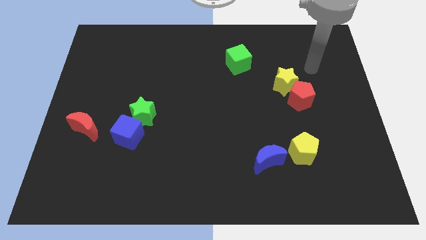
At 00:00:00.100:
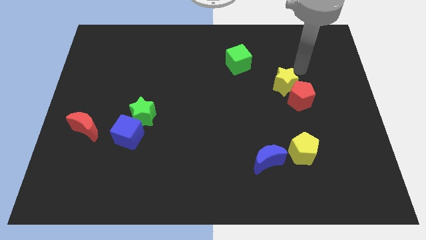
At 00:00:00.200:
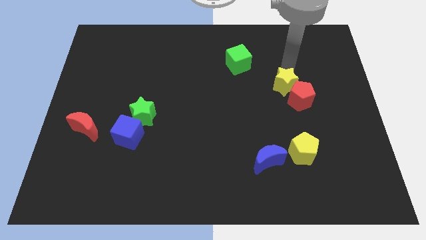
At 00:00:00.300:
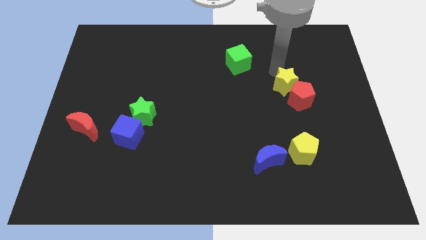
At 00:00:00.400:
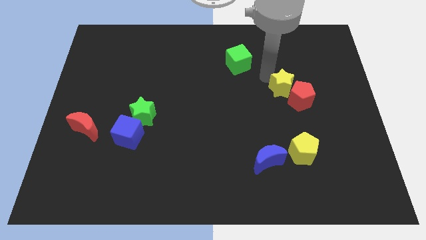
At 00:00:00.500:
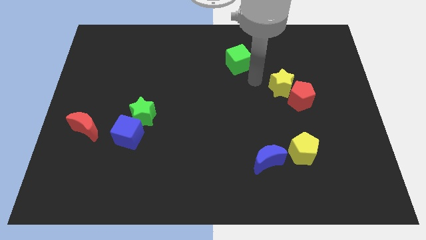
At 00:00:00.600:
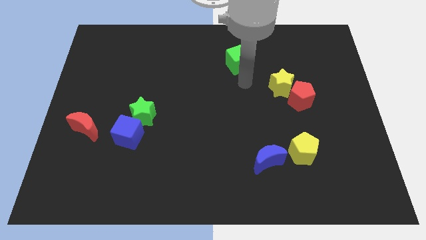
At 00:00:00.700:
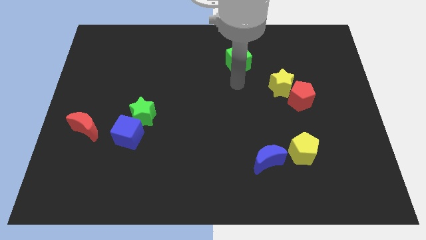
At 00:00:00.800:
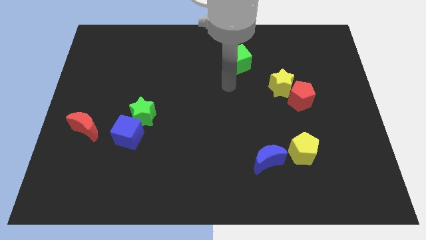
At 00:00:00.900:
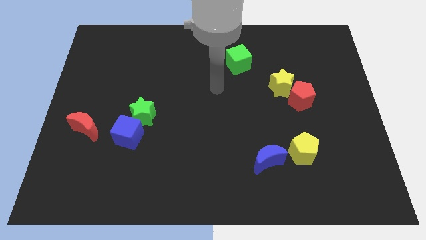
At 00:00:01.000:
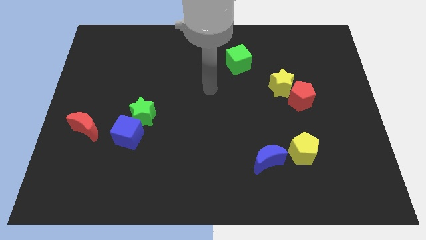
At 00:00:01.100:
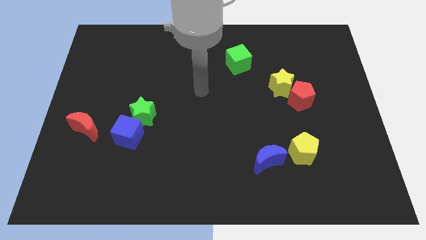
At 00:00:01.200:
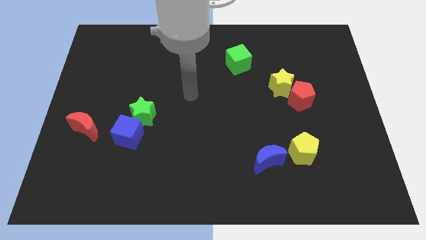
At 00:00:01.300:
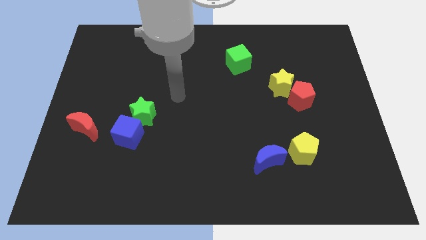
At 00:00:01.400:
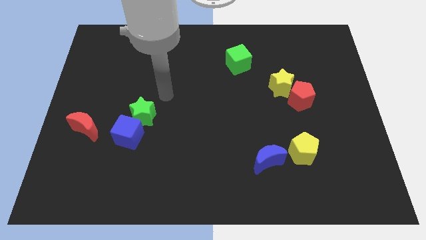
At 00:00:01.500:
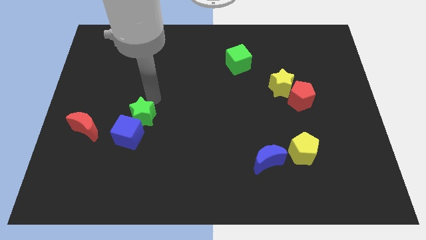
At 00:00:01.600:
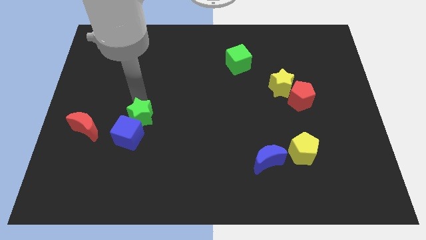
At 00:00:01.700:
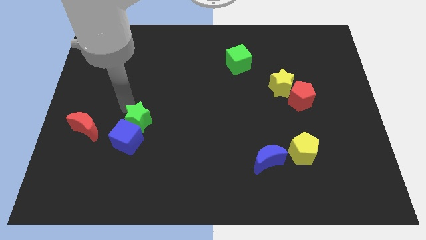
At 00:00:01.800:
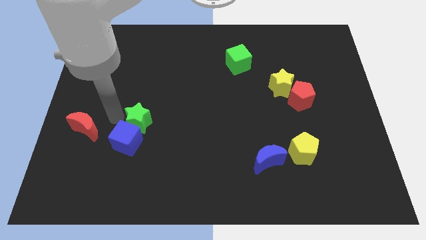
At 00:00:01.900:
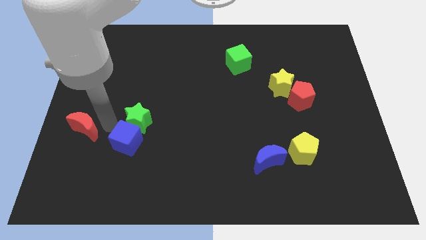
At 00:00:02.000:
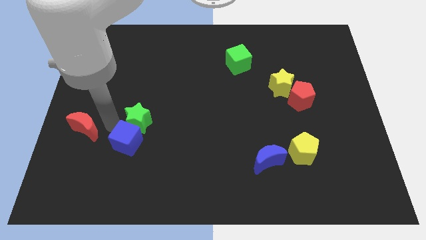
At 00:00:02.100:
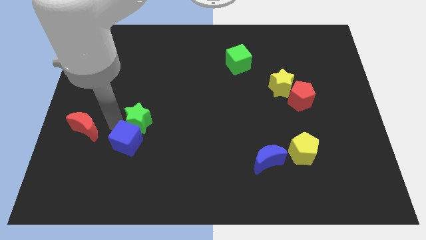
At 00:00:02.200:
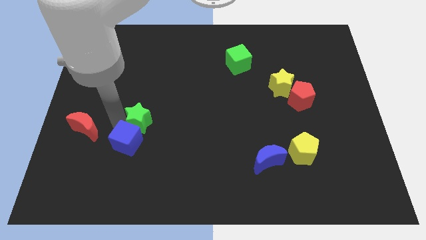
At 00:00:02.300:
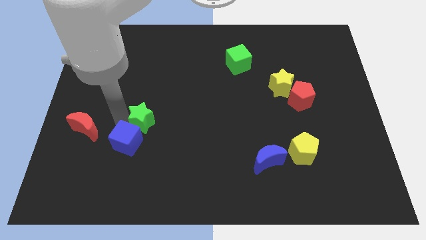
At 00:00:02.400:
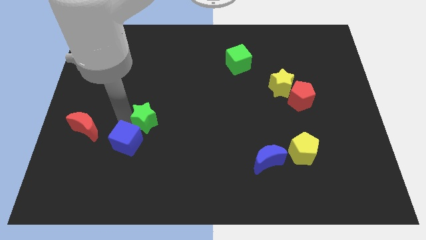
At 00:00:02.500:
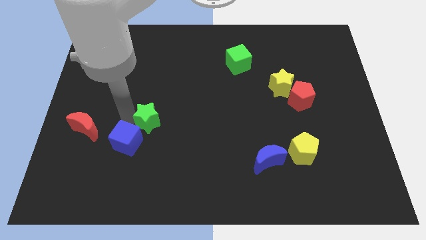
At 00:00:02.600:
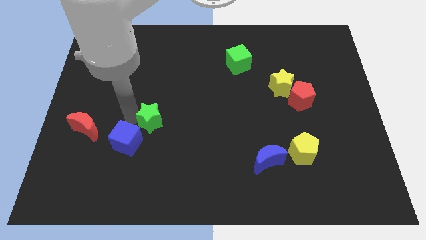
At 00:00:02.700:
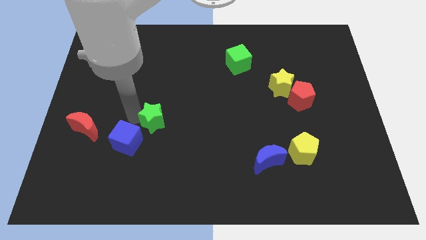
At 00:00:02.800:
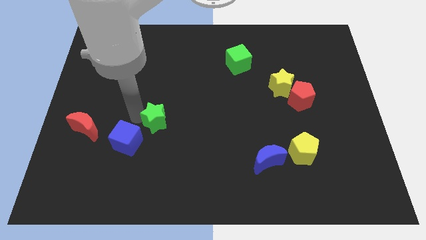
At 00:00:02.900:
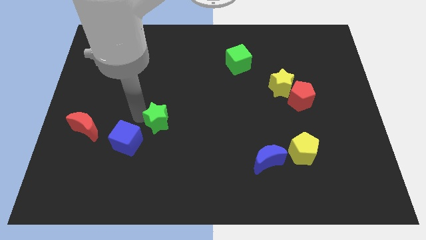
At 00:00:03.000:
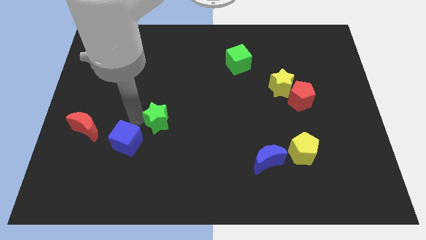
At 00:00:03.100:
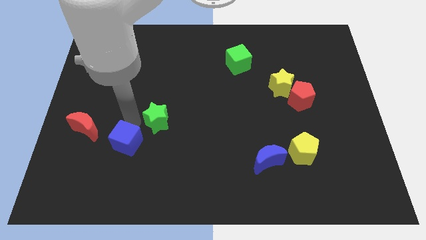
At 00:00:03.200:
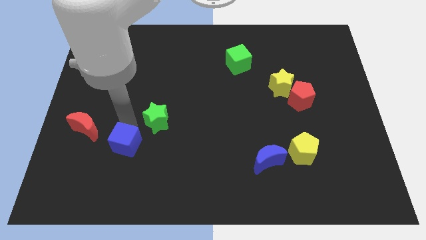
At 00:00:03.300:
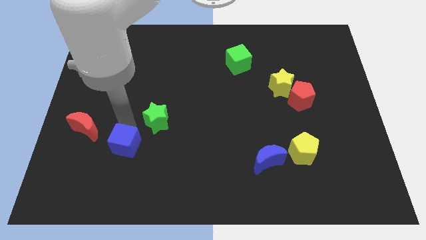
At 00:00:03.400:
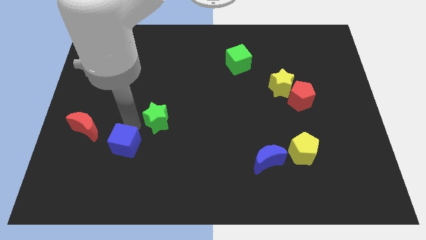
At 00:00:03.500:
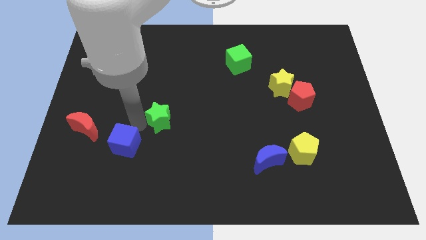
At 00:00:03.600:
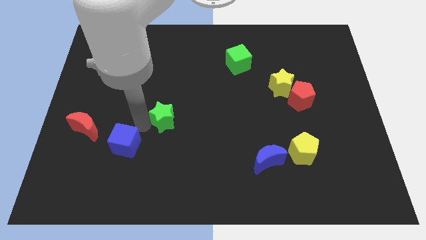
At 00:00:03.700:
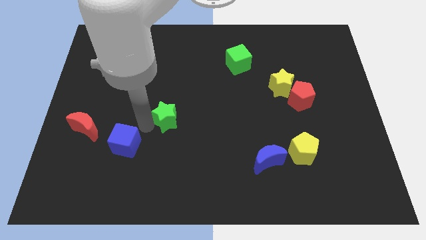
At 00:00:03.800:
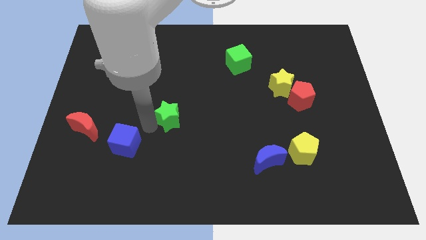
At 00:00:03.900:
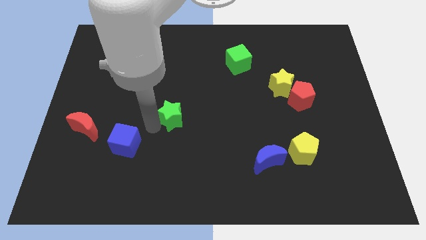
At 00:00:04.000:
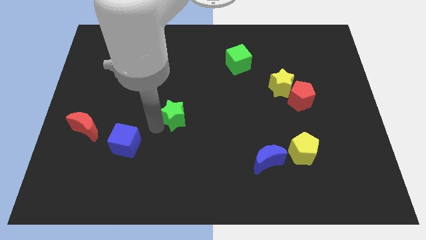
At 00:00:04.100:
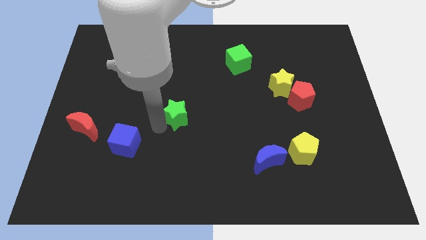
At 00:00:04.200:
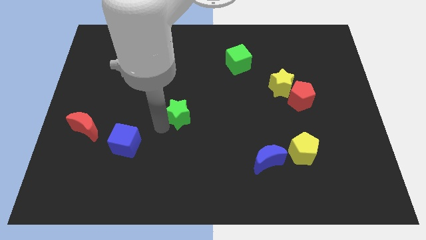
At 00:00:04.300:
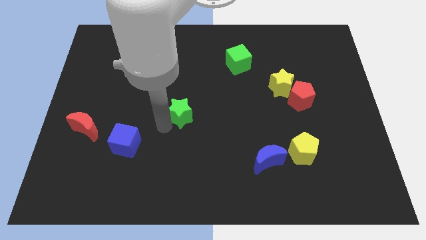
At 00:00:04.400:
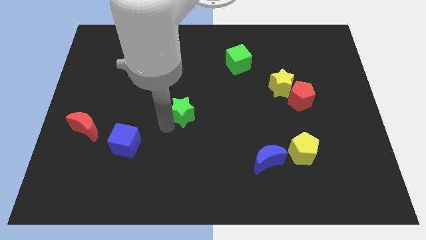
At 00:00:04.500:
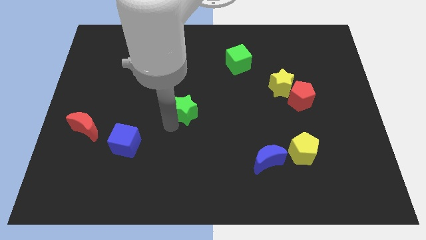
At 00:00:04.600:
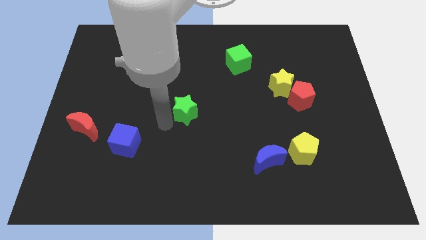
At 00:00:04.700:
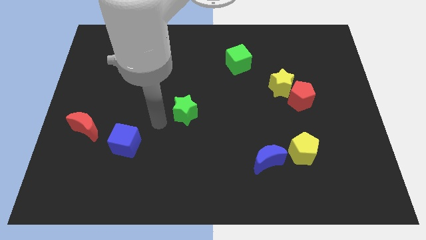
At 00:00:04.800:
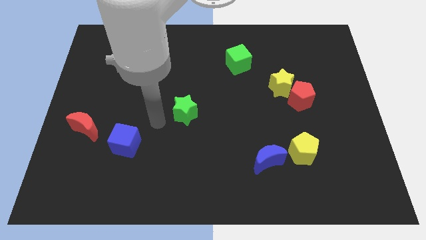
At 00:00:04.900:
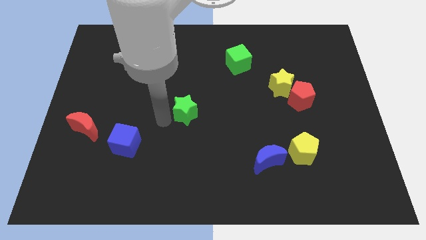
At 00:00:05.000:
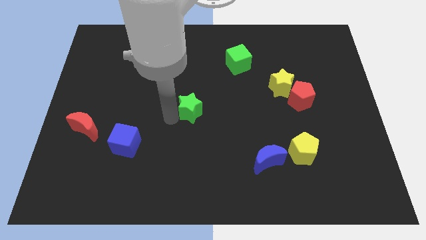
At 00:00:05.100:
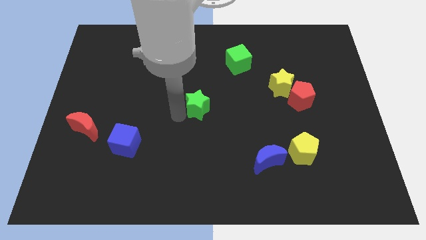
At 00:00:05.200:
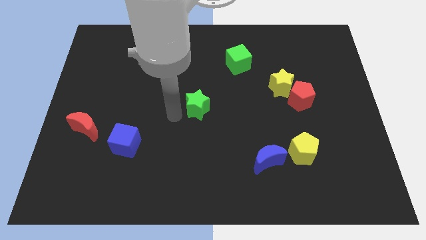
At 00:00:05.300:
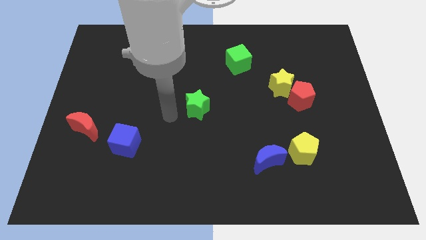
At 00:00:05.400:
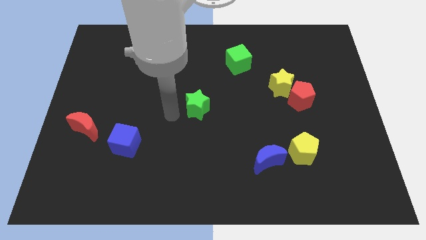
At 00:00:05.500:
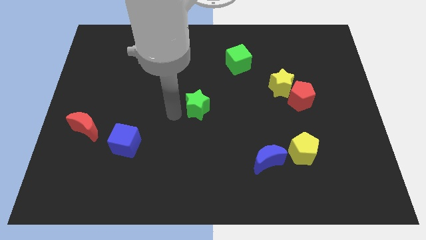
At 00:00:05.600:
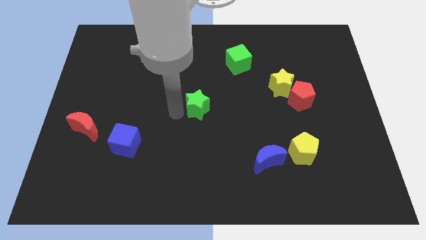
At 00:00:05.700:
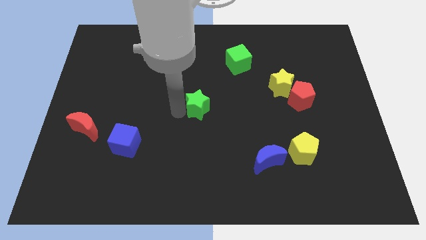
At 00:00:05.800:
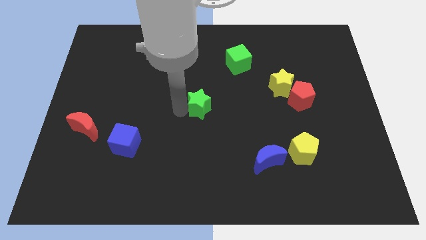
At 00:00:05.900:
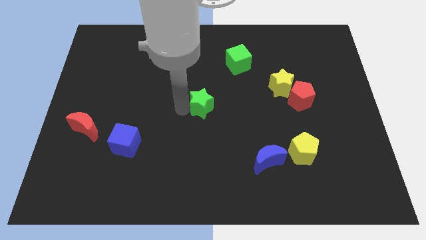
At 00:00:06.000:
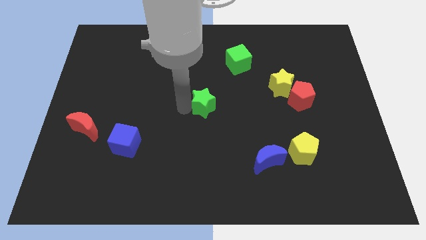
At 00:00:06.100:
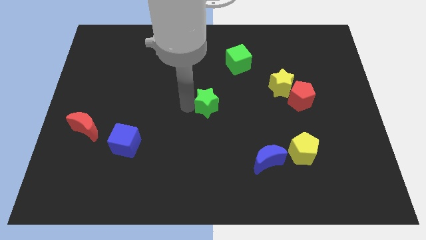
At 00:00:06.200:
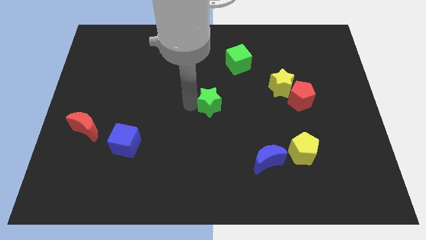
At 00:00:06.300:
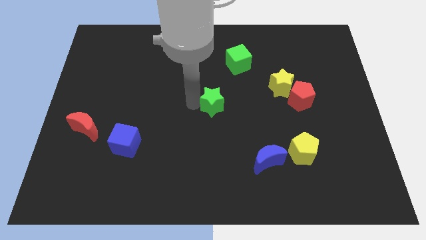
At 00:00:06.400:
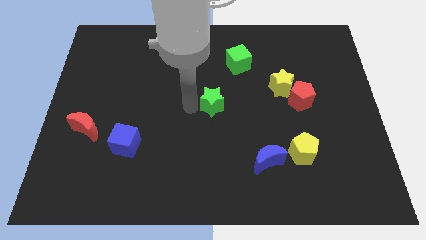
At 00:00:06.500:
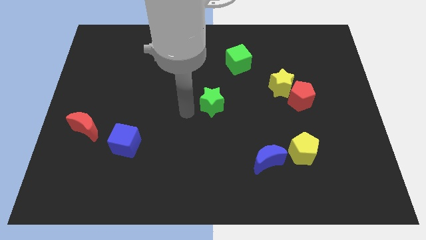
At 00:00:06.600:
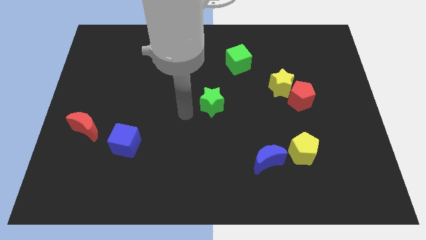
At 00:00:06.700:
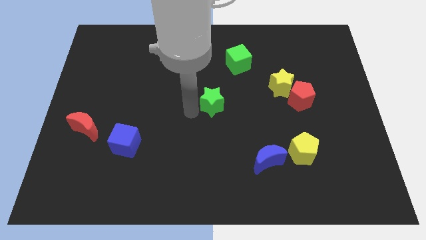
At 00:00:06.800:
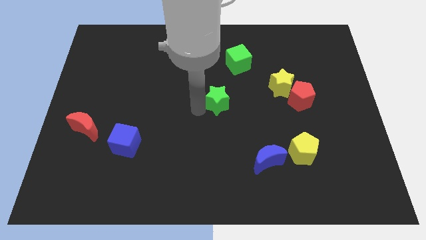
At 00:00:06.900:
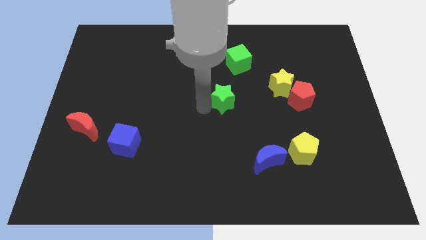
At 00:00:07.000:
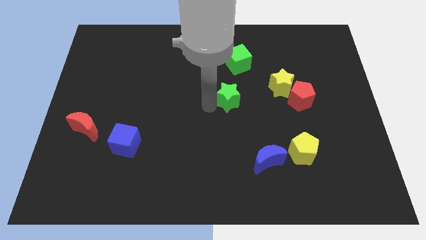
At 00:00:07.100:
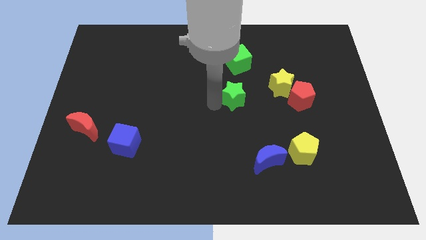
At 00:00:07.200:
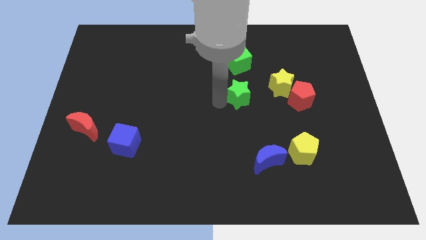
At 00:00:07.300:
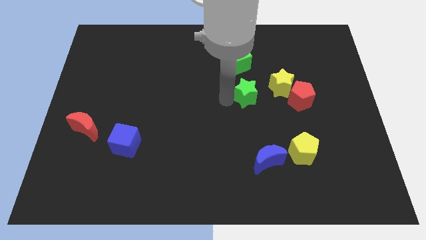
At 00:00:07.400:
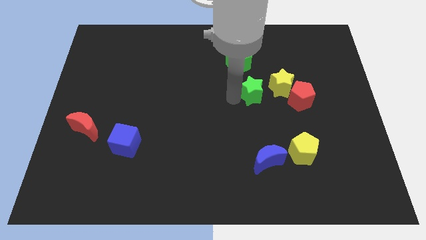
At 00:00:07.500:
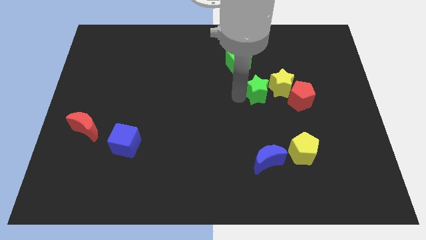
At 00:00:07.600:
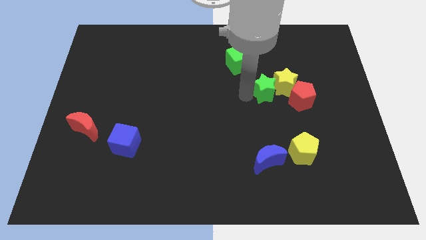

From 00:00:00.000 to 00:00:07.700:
slide the green star to the yellow star
